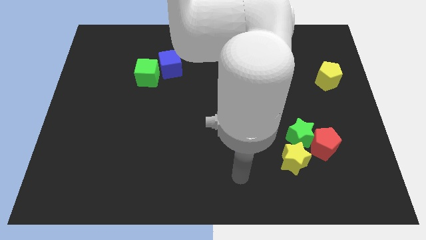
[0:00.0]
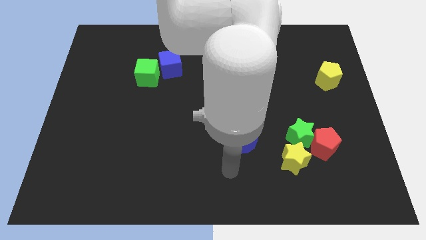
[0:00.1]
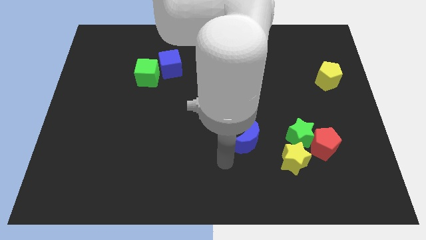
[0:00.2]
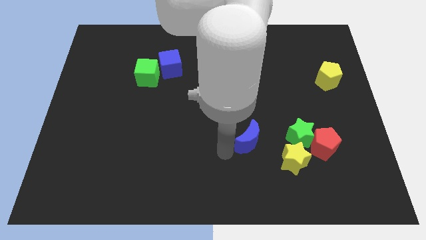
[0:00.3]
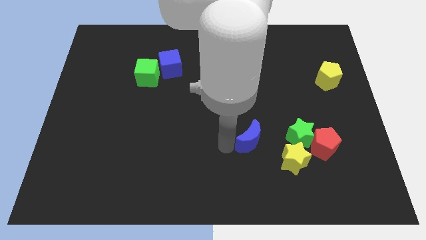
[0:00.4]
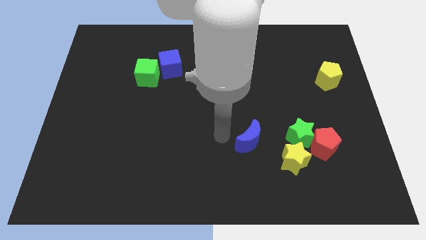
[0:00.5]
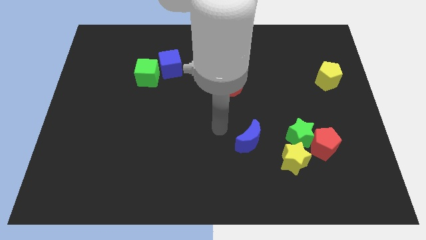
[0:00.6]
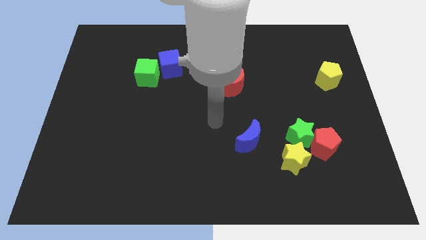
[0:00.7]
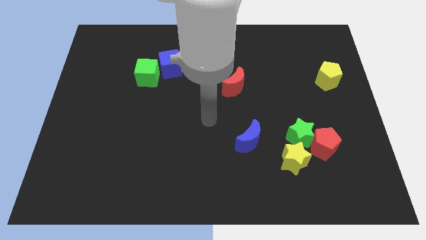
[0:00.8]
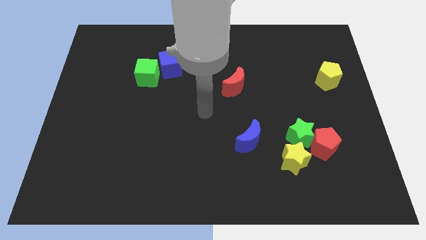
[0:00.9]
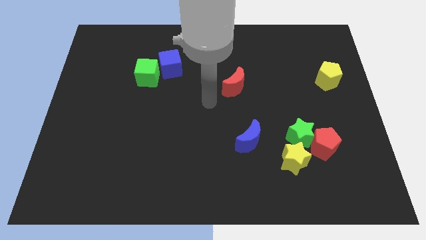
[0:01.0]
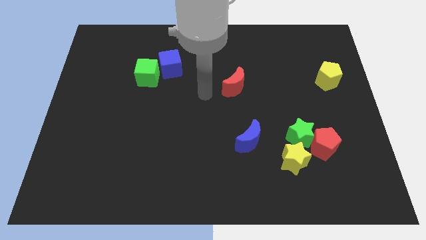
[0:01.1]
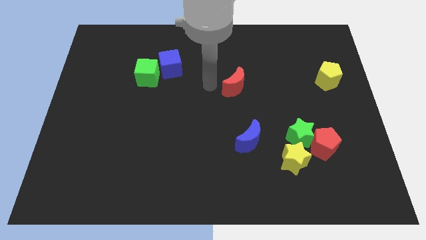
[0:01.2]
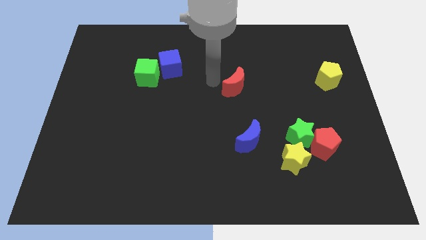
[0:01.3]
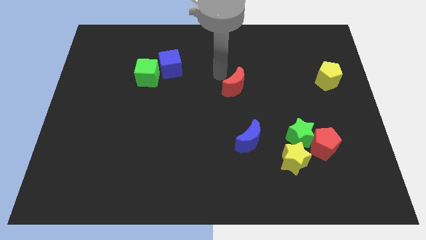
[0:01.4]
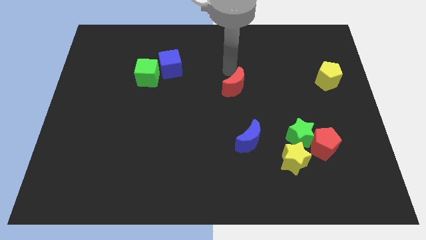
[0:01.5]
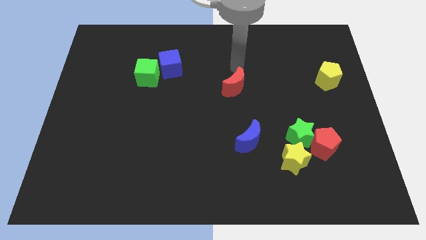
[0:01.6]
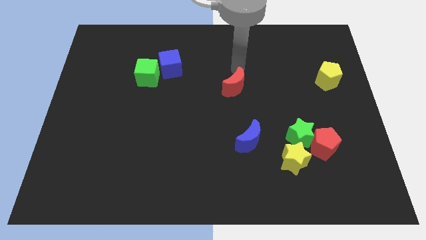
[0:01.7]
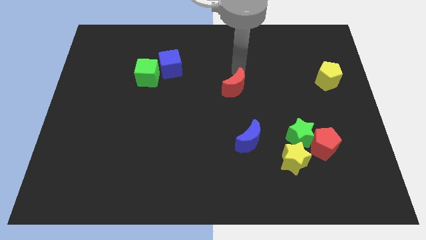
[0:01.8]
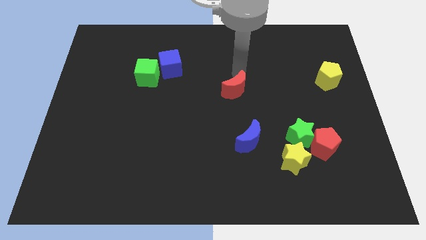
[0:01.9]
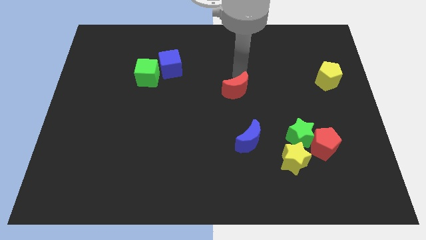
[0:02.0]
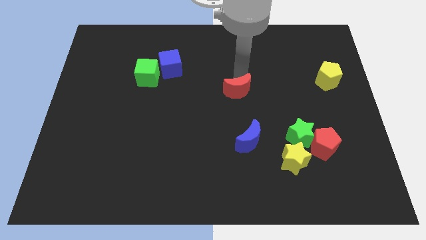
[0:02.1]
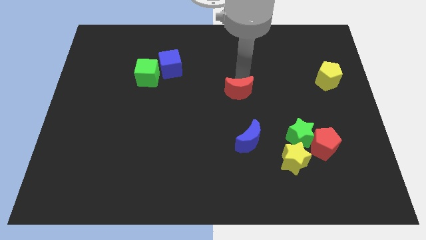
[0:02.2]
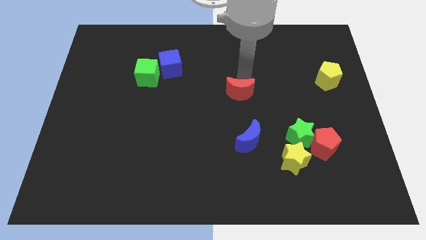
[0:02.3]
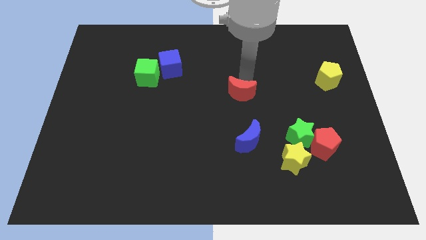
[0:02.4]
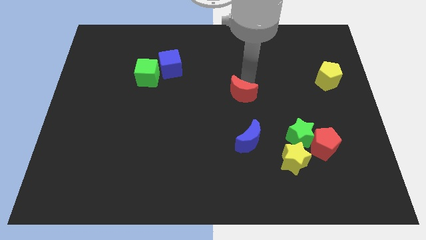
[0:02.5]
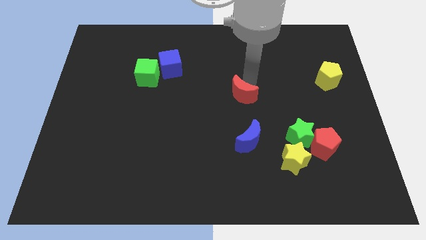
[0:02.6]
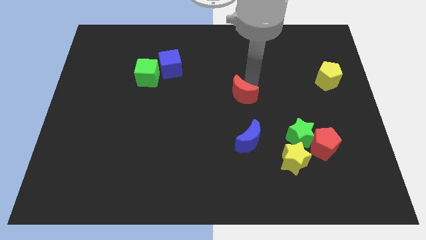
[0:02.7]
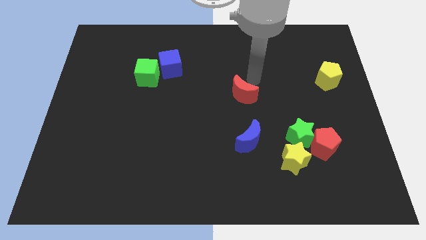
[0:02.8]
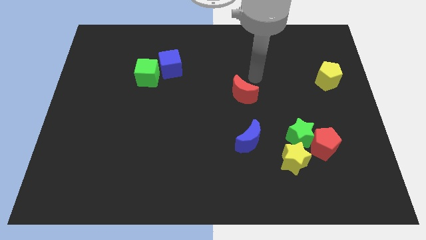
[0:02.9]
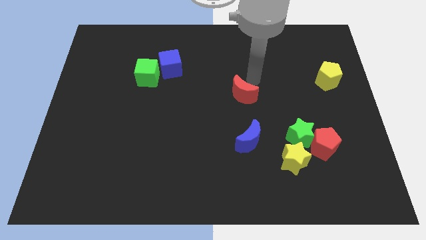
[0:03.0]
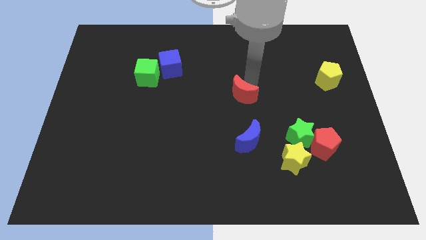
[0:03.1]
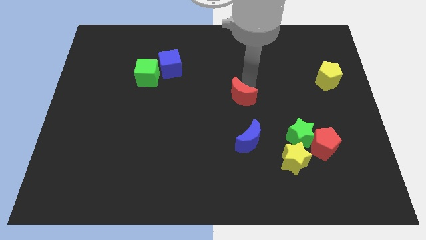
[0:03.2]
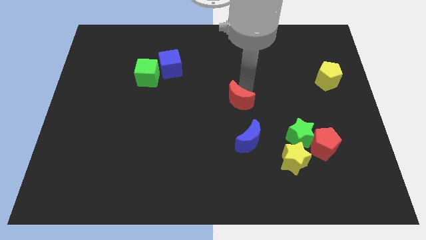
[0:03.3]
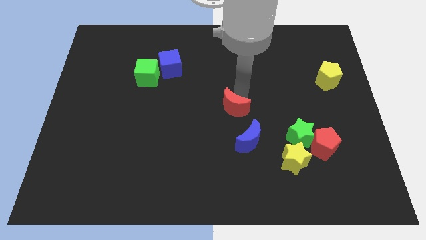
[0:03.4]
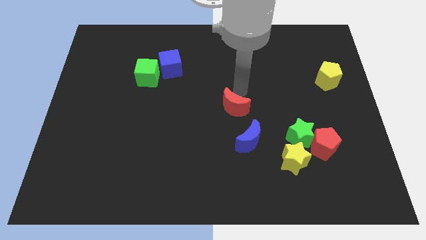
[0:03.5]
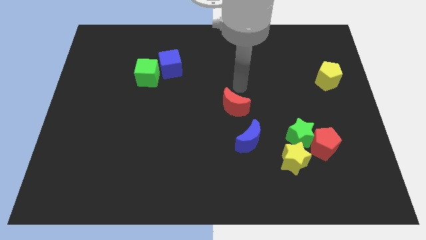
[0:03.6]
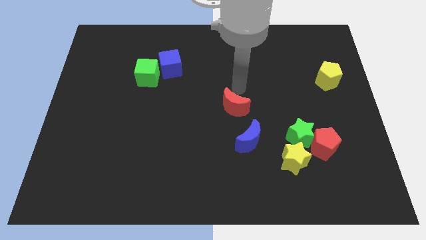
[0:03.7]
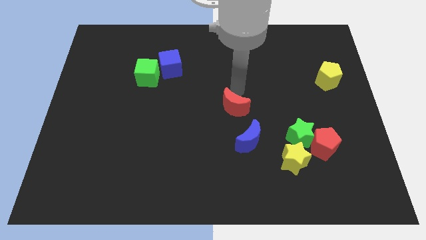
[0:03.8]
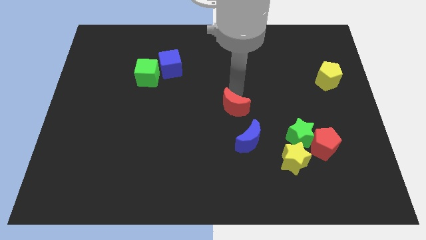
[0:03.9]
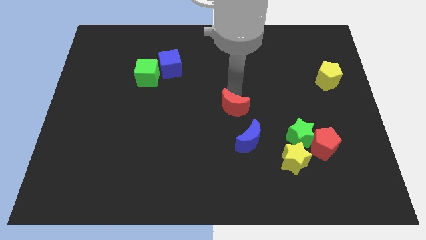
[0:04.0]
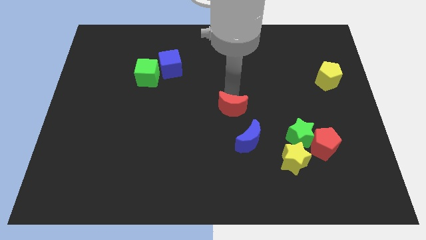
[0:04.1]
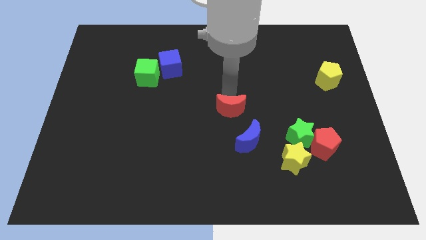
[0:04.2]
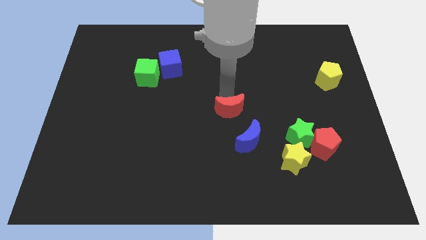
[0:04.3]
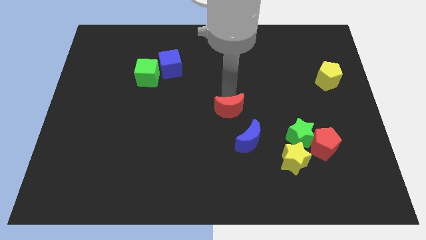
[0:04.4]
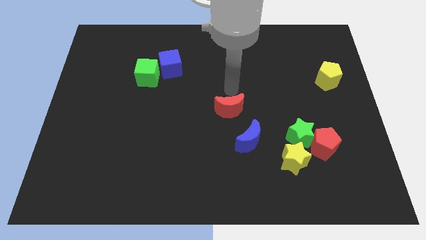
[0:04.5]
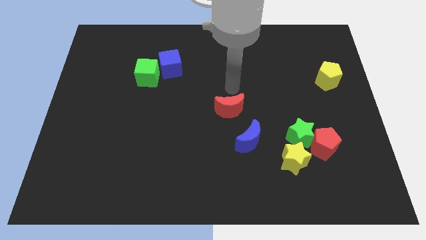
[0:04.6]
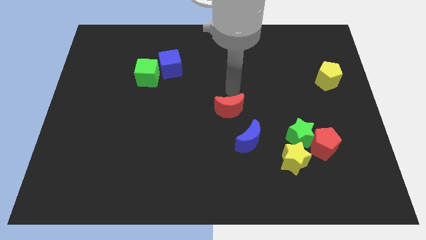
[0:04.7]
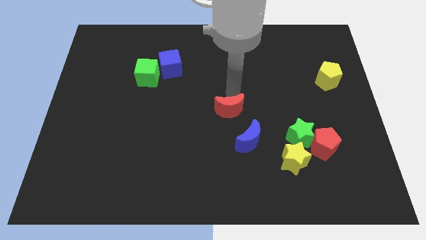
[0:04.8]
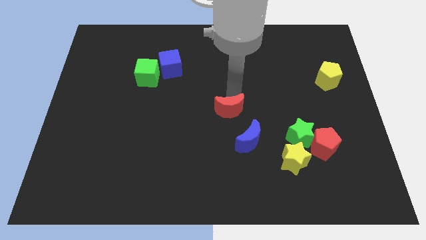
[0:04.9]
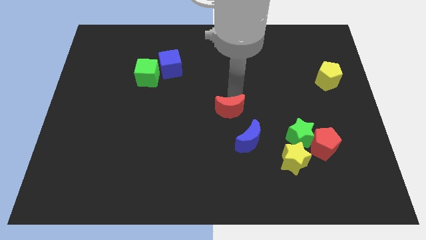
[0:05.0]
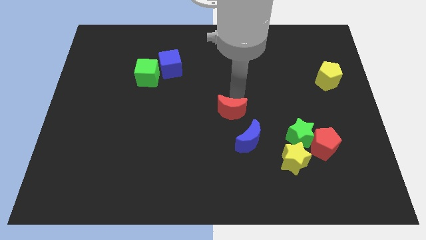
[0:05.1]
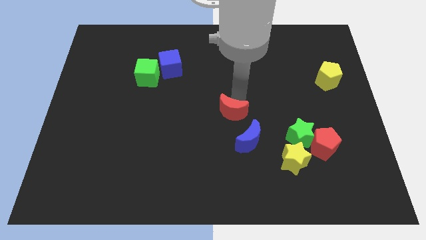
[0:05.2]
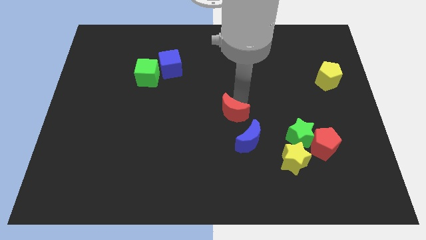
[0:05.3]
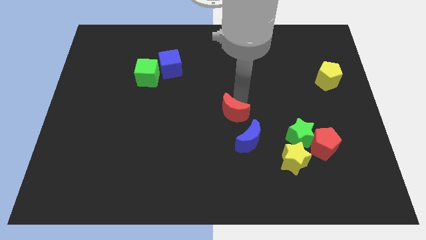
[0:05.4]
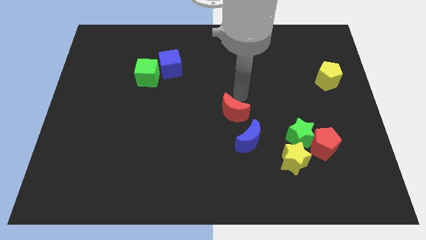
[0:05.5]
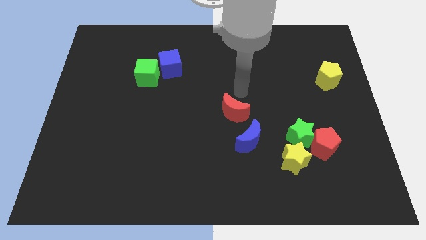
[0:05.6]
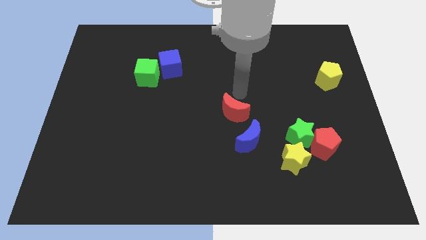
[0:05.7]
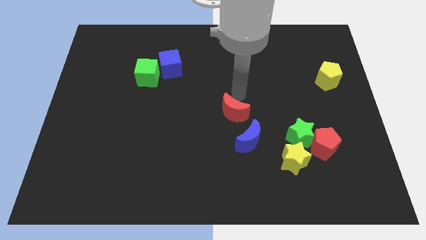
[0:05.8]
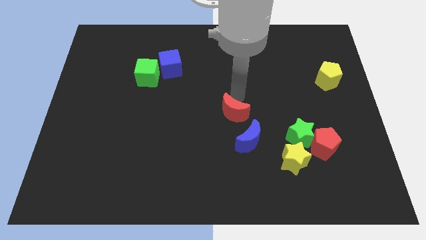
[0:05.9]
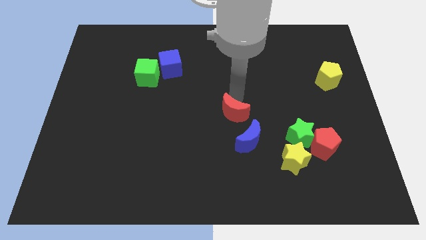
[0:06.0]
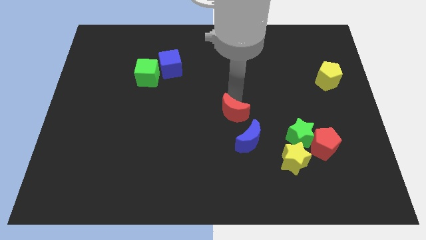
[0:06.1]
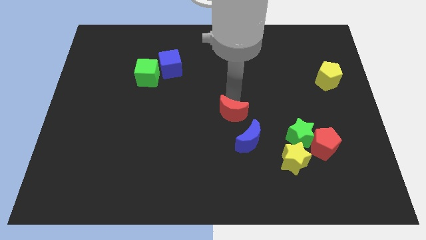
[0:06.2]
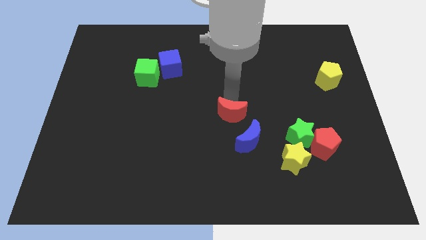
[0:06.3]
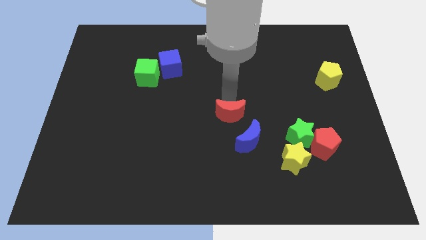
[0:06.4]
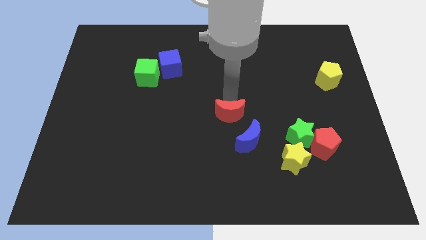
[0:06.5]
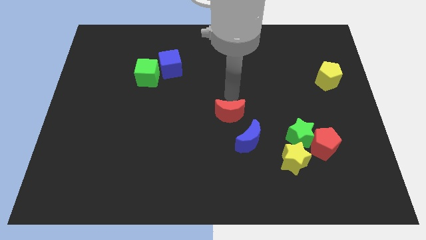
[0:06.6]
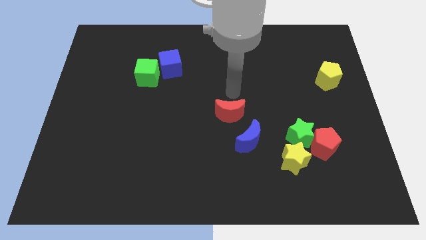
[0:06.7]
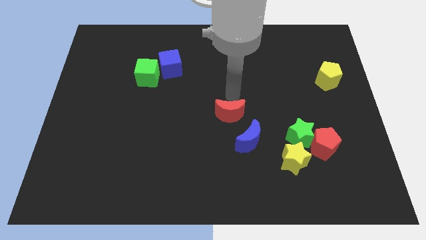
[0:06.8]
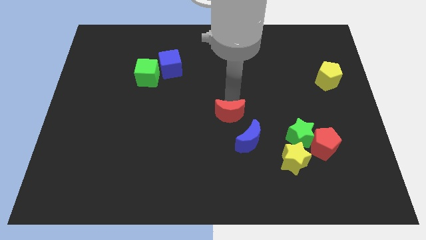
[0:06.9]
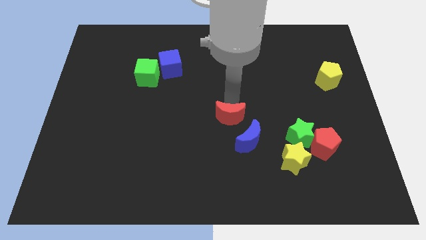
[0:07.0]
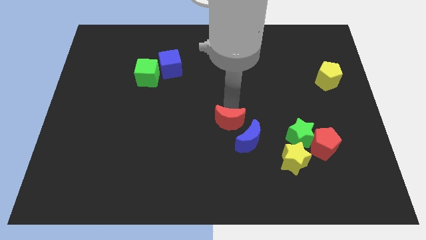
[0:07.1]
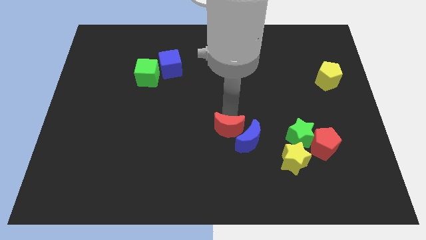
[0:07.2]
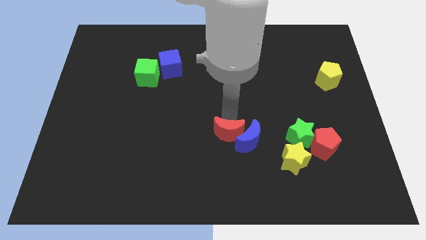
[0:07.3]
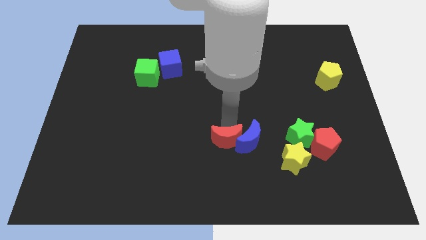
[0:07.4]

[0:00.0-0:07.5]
push the red moon to the bottom left of the blue moon

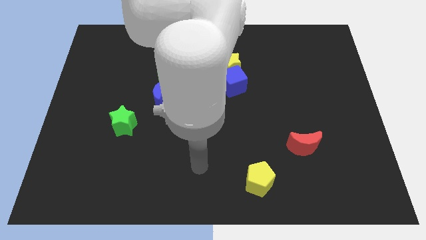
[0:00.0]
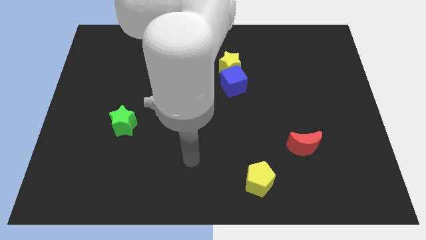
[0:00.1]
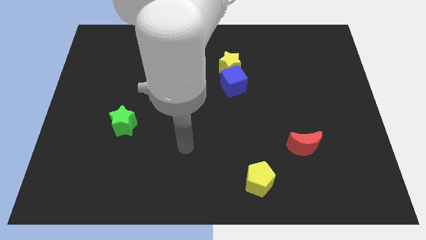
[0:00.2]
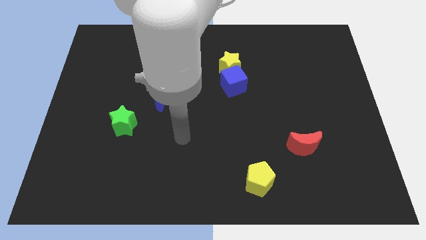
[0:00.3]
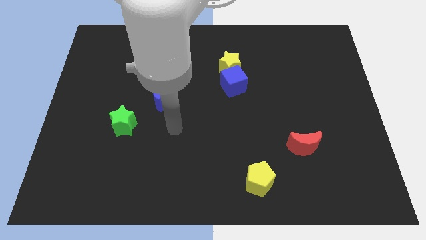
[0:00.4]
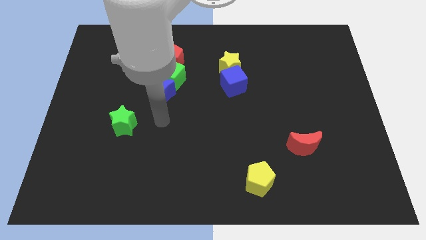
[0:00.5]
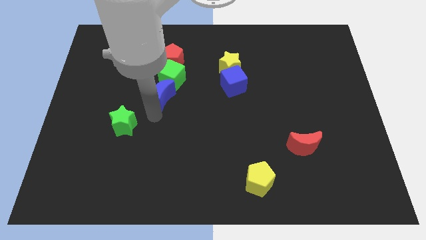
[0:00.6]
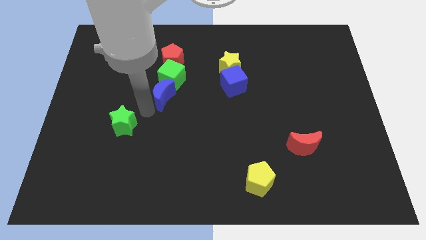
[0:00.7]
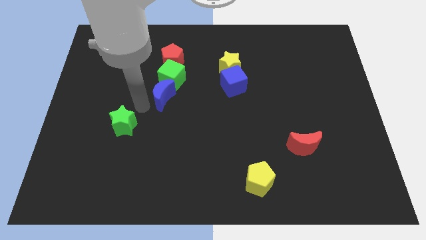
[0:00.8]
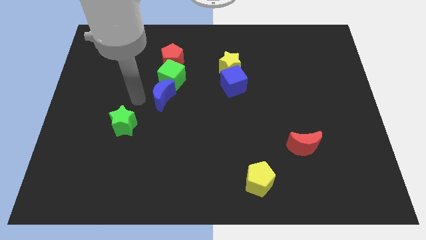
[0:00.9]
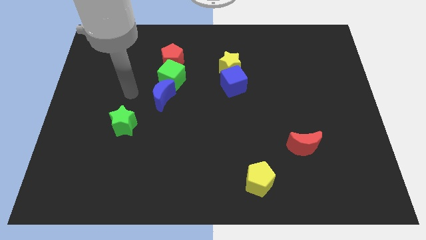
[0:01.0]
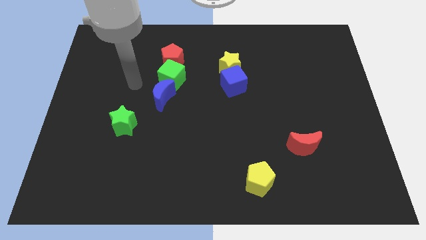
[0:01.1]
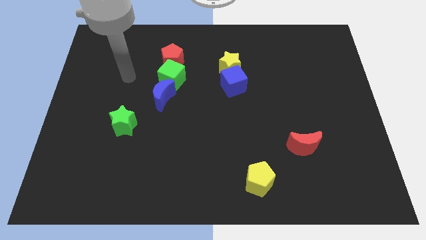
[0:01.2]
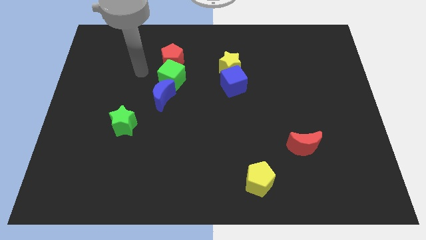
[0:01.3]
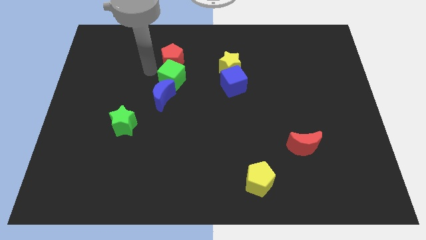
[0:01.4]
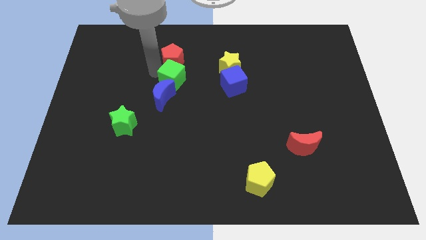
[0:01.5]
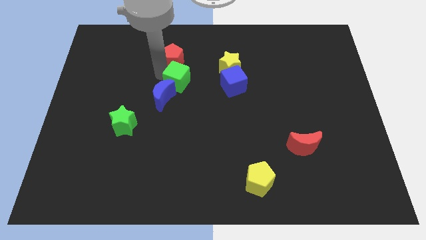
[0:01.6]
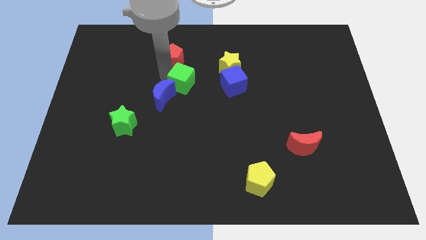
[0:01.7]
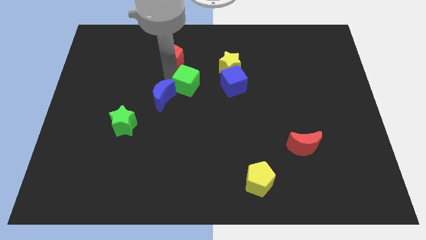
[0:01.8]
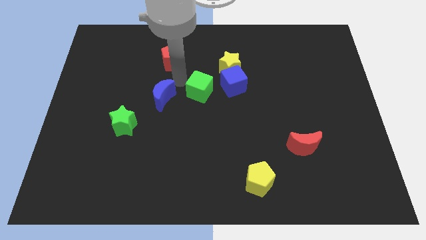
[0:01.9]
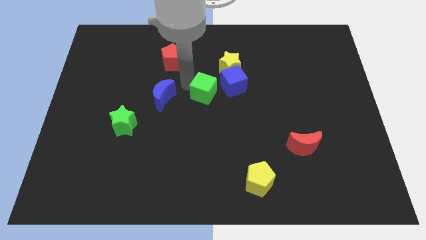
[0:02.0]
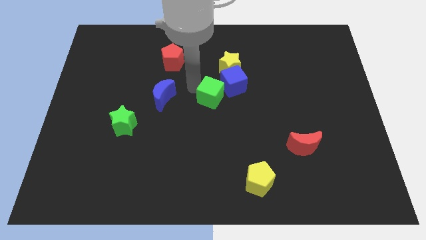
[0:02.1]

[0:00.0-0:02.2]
push the green cube to the bottom of the yellow star
